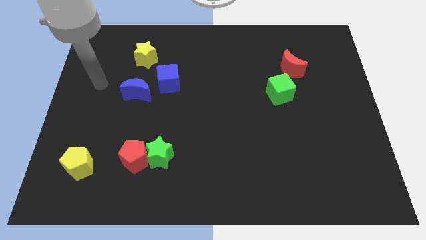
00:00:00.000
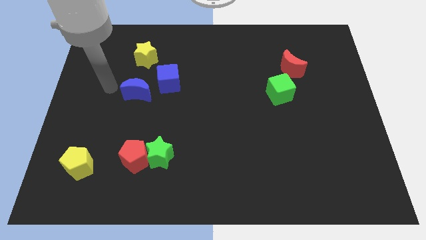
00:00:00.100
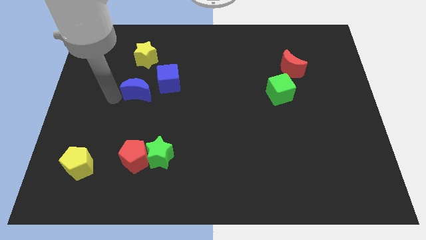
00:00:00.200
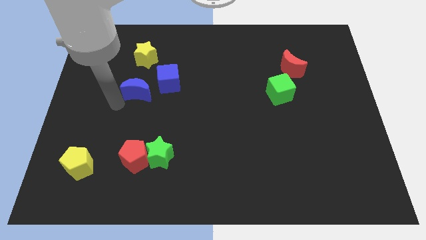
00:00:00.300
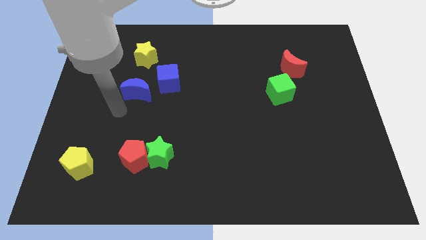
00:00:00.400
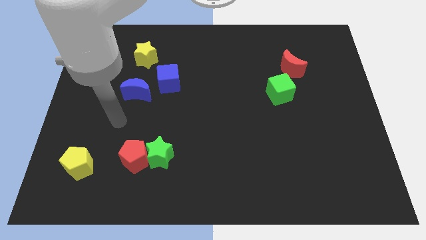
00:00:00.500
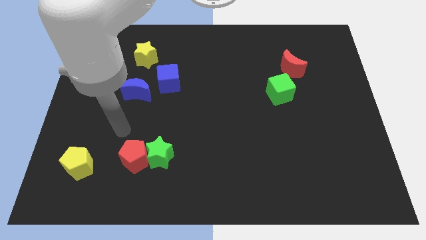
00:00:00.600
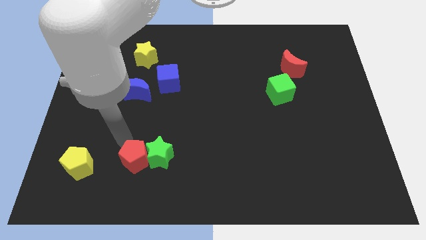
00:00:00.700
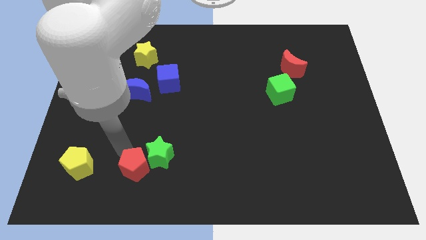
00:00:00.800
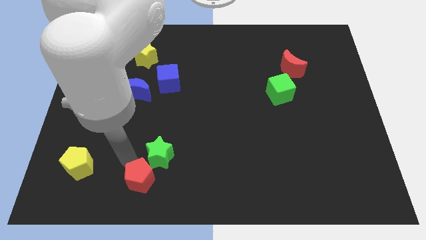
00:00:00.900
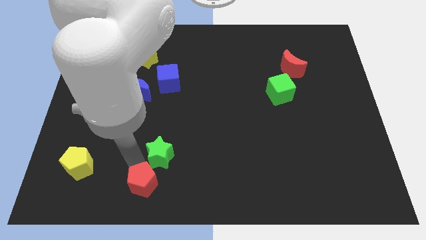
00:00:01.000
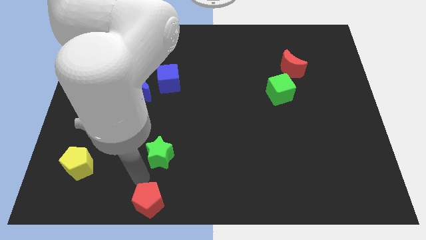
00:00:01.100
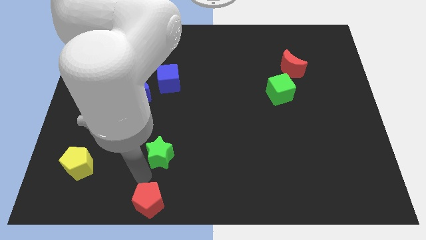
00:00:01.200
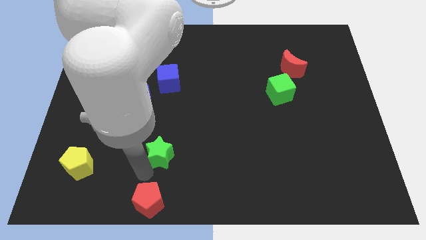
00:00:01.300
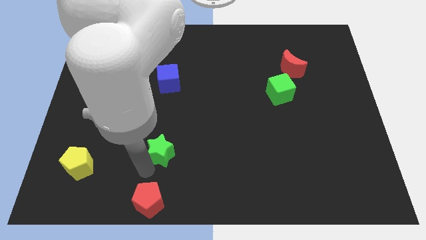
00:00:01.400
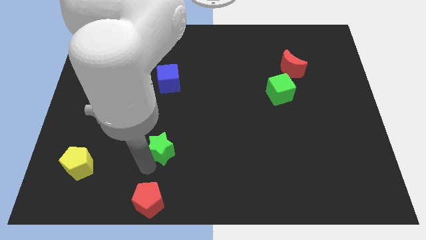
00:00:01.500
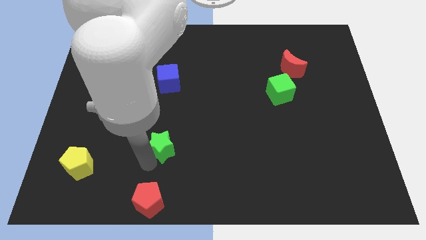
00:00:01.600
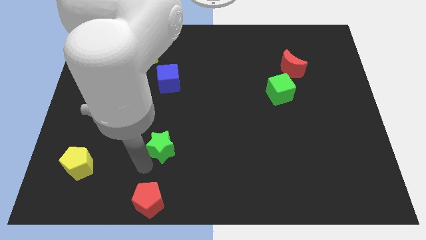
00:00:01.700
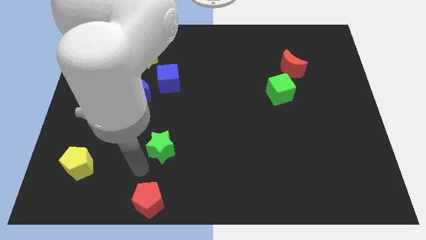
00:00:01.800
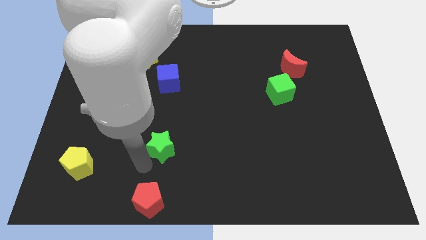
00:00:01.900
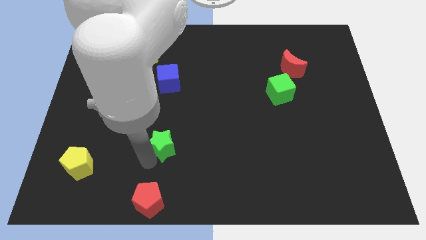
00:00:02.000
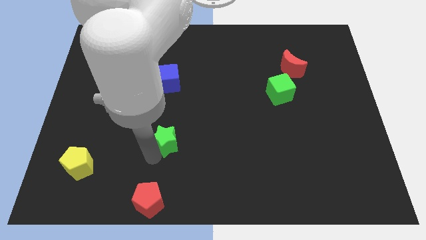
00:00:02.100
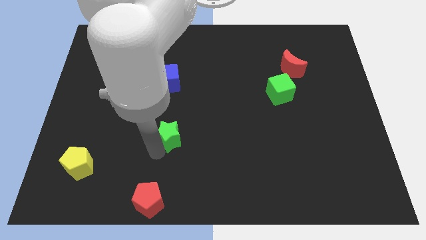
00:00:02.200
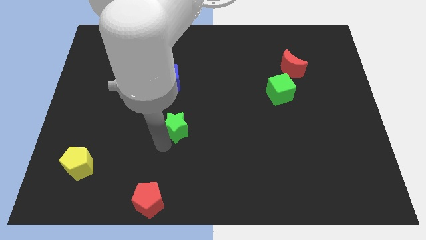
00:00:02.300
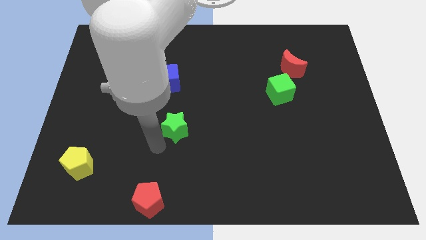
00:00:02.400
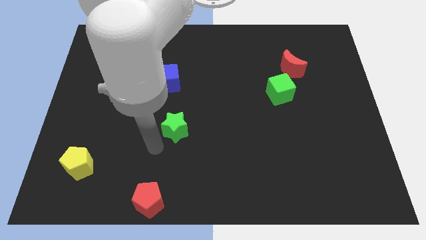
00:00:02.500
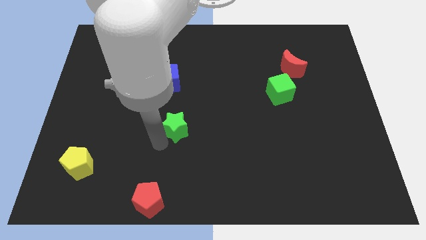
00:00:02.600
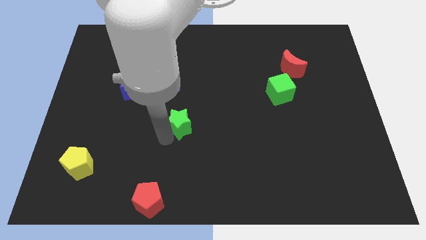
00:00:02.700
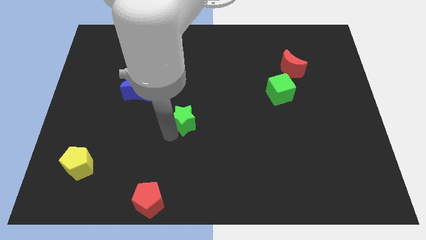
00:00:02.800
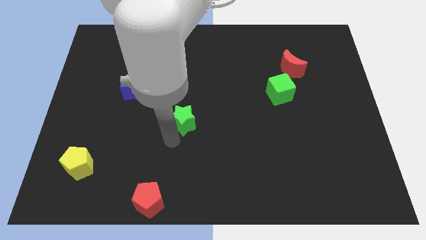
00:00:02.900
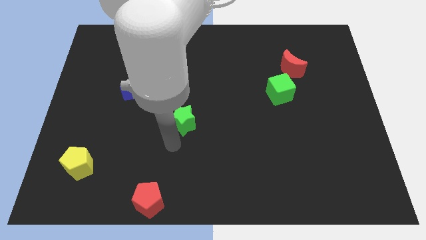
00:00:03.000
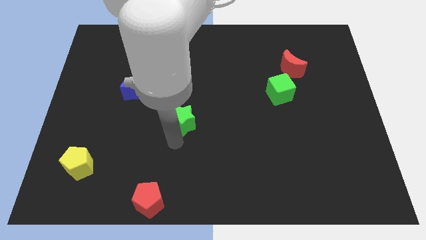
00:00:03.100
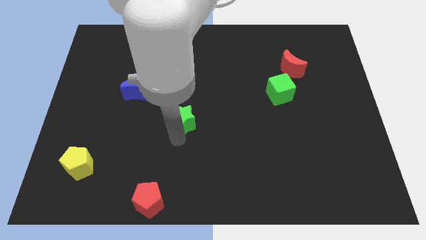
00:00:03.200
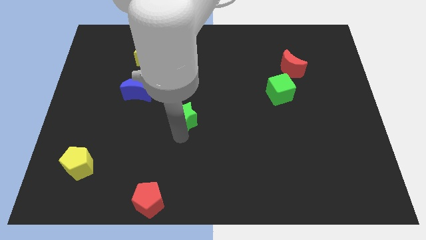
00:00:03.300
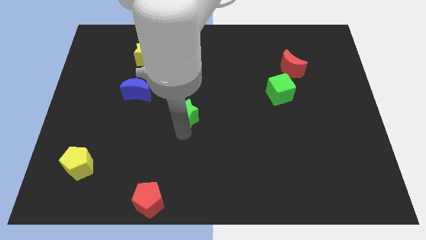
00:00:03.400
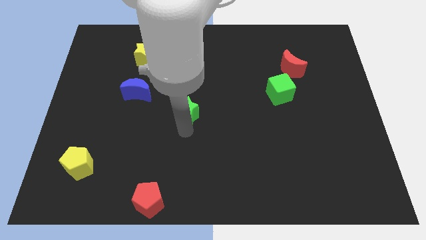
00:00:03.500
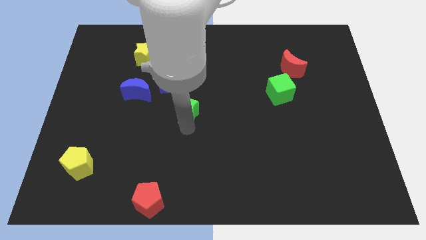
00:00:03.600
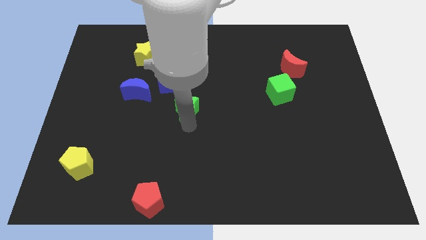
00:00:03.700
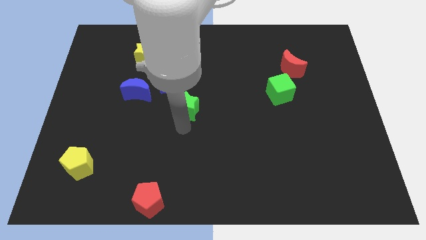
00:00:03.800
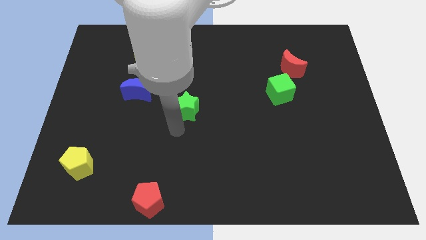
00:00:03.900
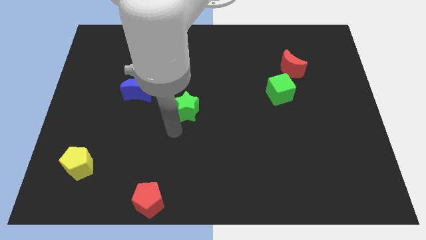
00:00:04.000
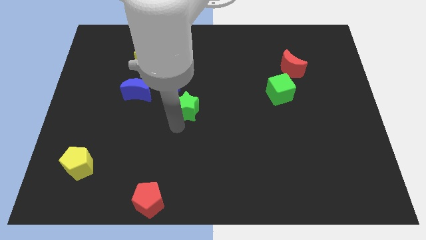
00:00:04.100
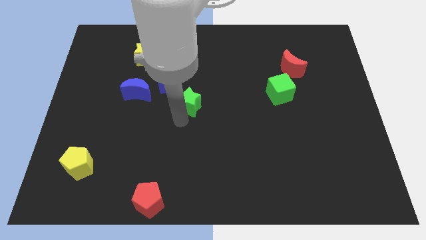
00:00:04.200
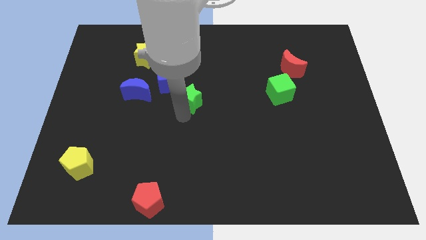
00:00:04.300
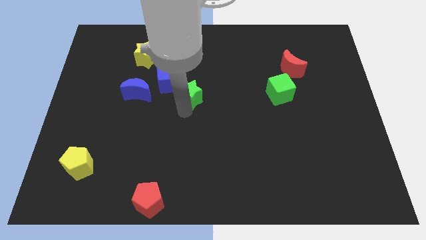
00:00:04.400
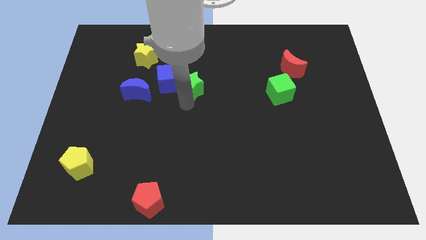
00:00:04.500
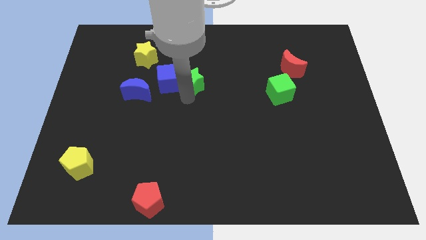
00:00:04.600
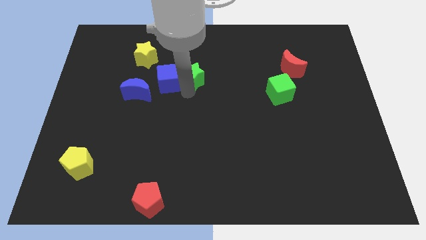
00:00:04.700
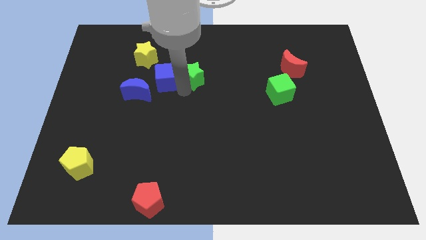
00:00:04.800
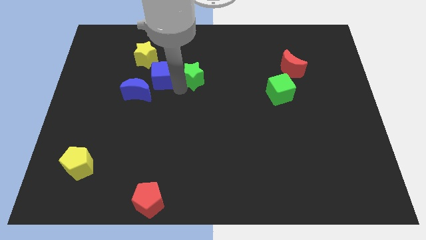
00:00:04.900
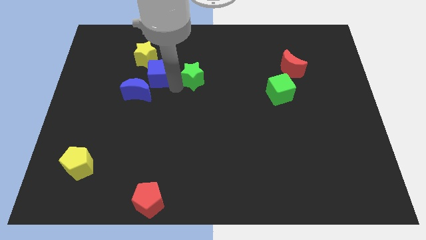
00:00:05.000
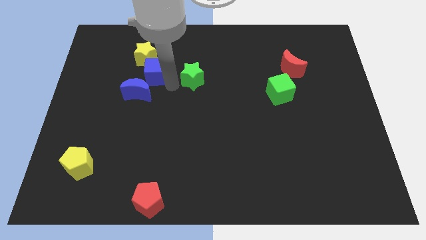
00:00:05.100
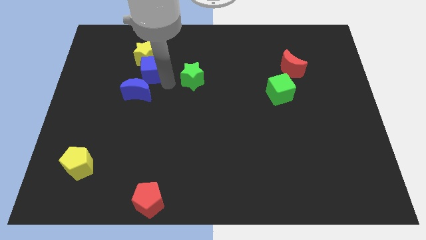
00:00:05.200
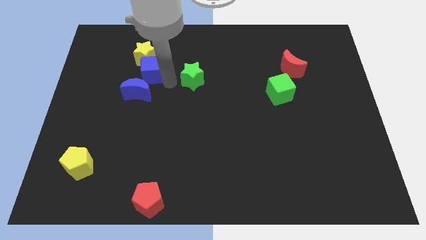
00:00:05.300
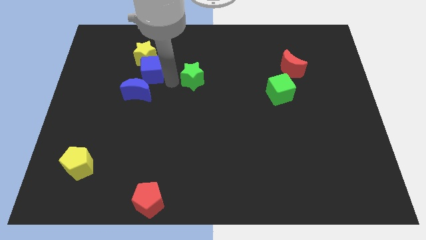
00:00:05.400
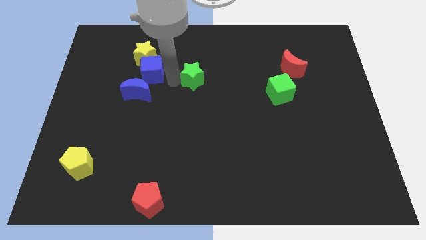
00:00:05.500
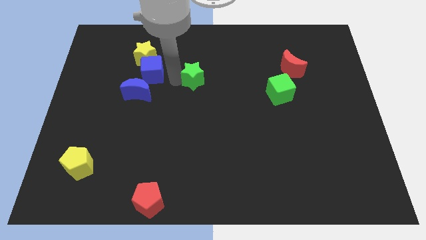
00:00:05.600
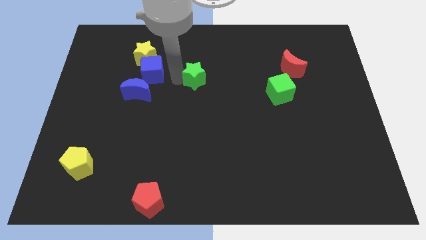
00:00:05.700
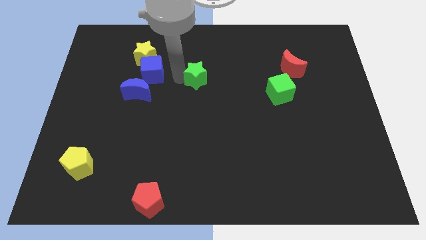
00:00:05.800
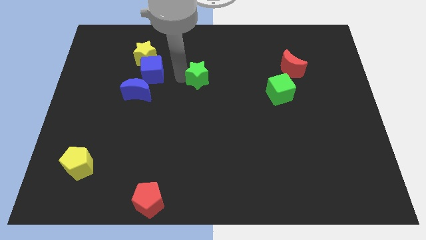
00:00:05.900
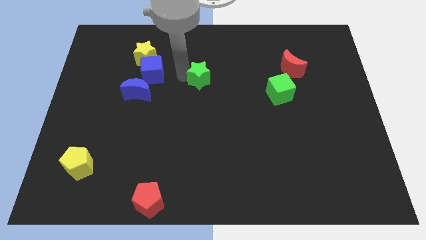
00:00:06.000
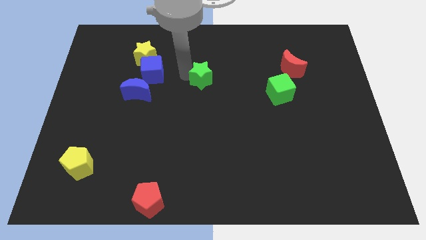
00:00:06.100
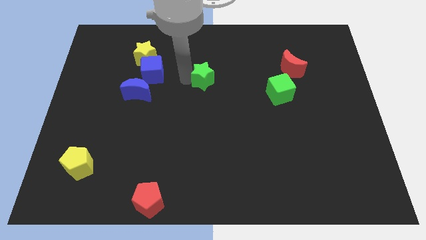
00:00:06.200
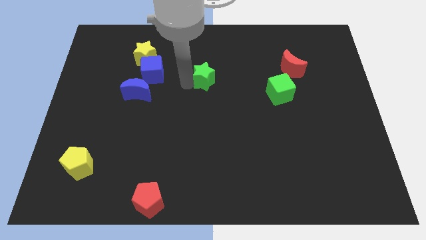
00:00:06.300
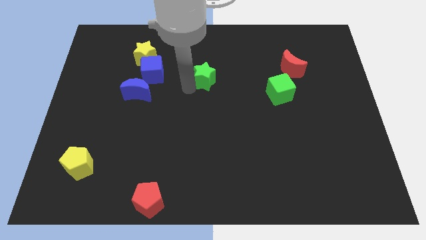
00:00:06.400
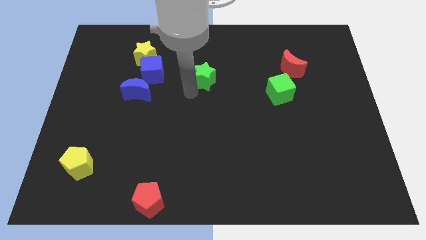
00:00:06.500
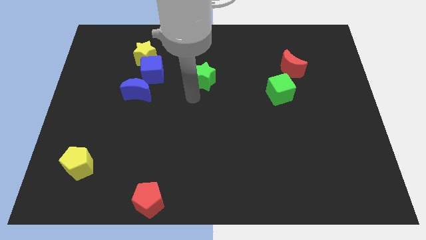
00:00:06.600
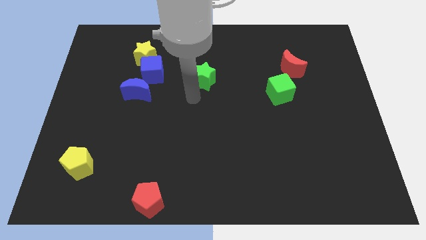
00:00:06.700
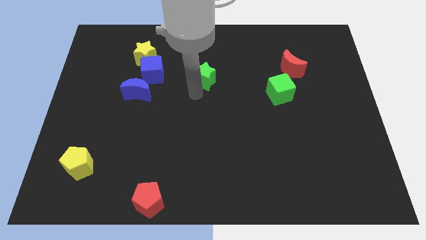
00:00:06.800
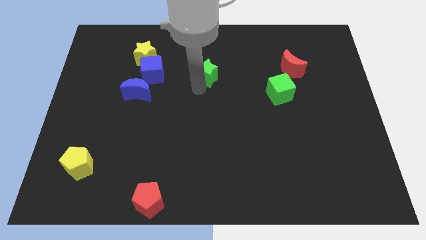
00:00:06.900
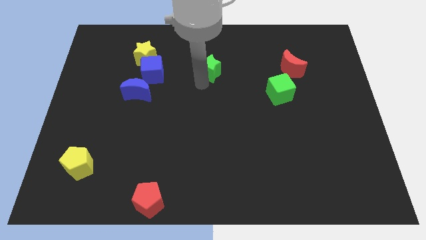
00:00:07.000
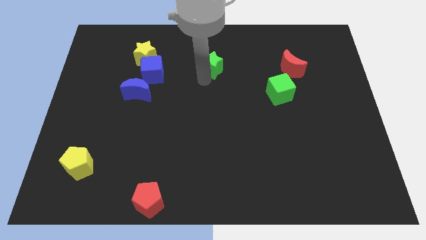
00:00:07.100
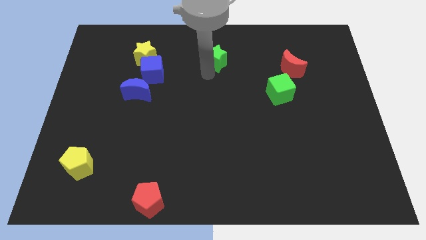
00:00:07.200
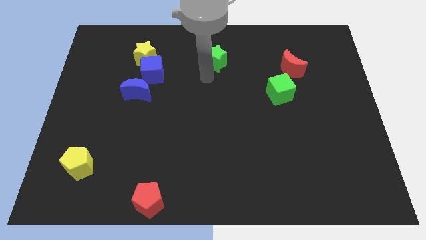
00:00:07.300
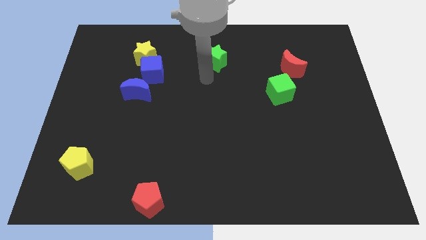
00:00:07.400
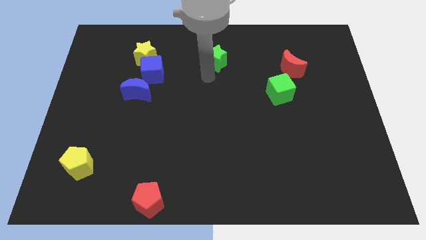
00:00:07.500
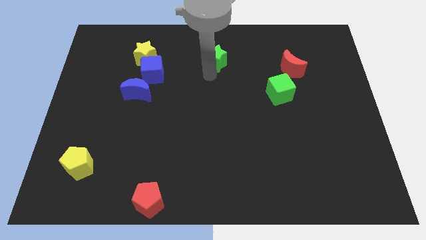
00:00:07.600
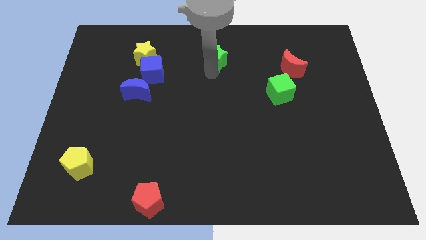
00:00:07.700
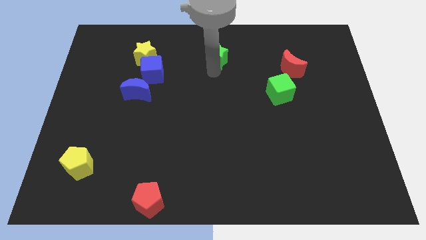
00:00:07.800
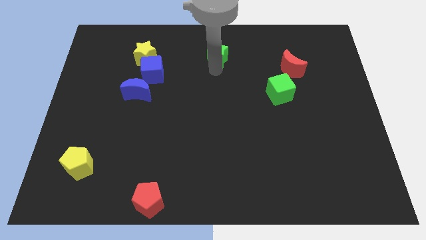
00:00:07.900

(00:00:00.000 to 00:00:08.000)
move the green star to the towards your base
